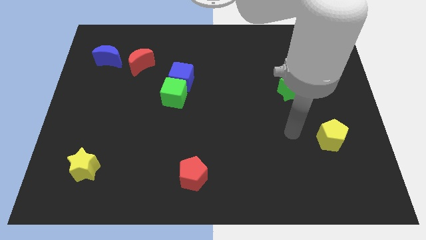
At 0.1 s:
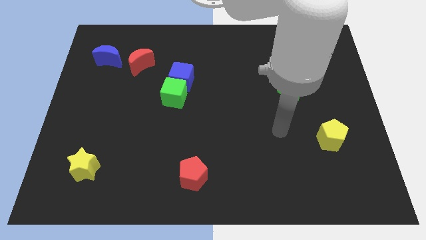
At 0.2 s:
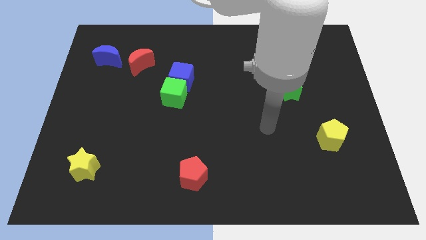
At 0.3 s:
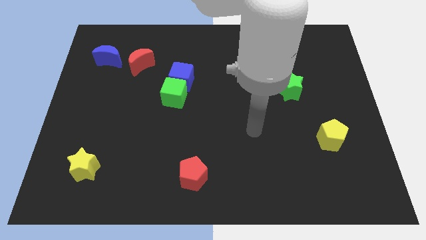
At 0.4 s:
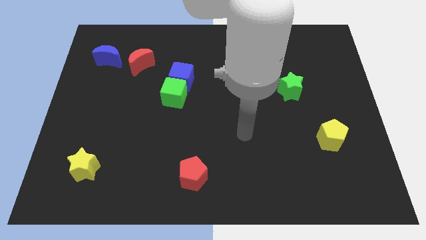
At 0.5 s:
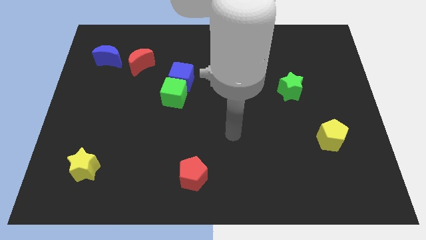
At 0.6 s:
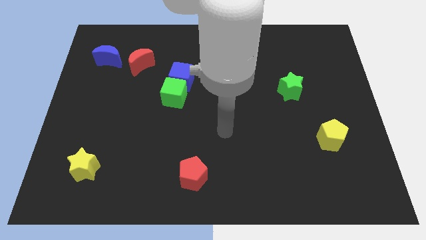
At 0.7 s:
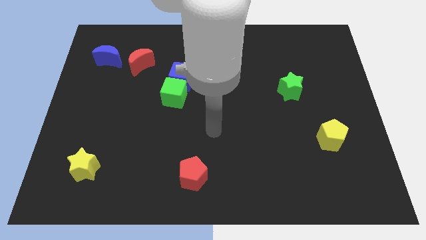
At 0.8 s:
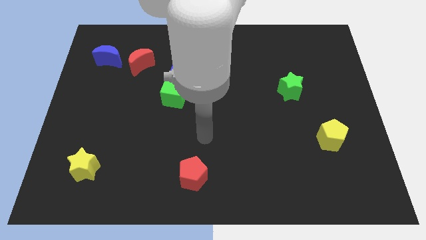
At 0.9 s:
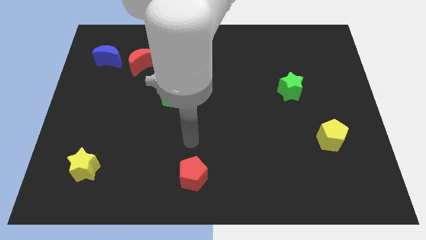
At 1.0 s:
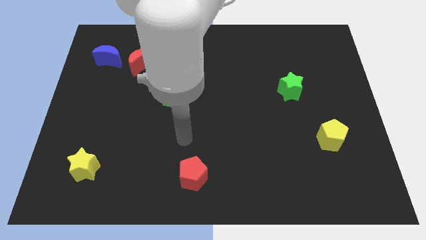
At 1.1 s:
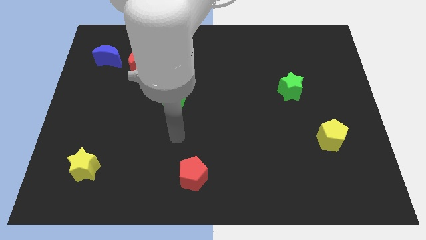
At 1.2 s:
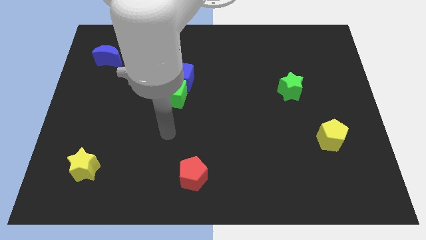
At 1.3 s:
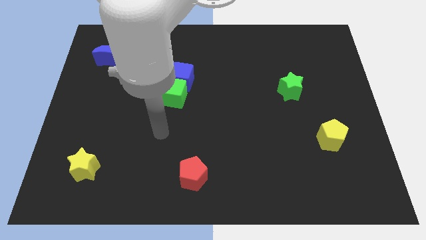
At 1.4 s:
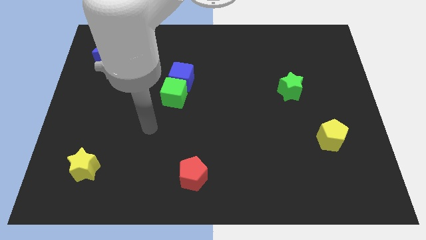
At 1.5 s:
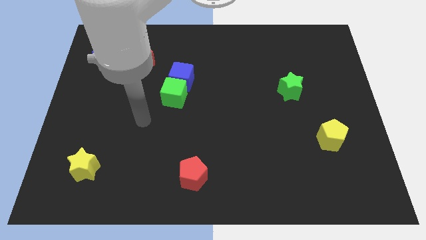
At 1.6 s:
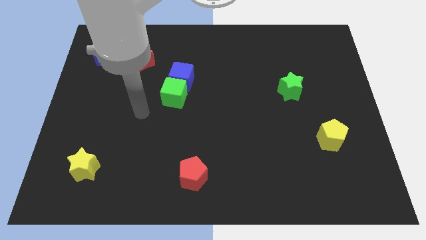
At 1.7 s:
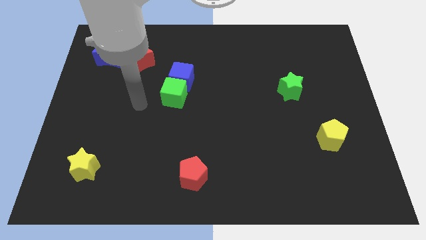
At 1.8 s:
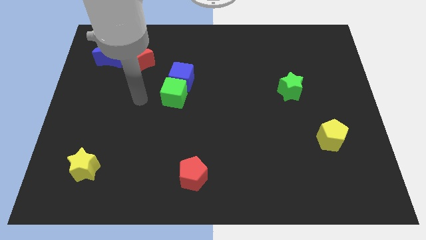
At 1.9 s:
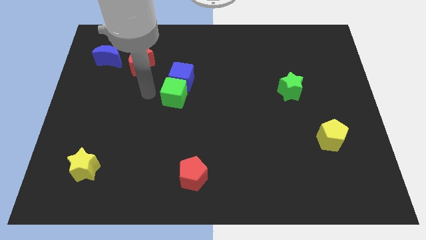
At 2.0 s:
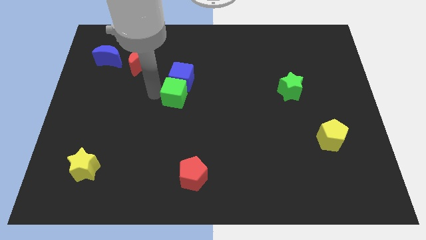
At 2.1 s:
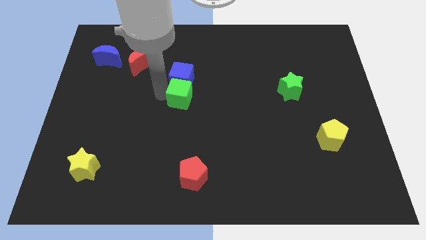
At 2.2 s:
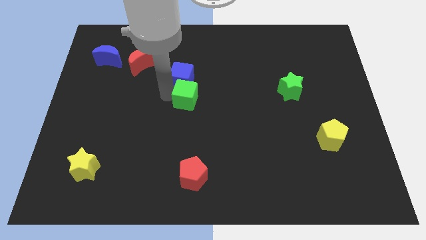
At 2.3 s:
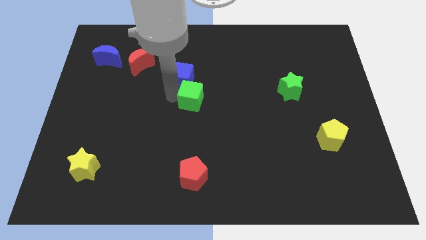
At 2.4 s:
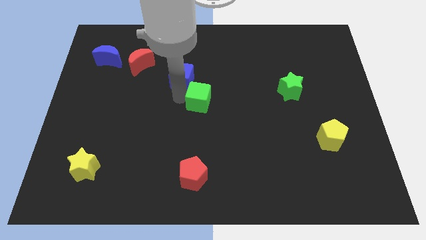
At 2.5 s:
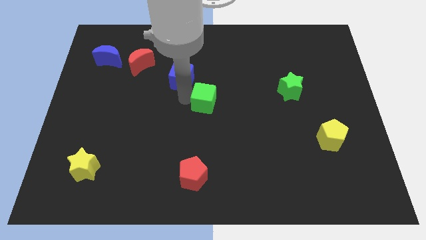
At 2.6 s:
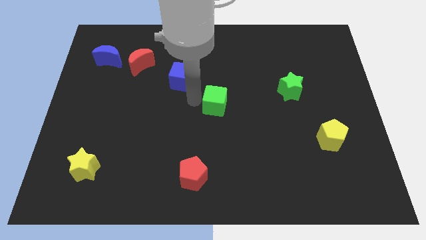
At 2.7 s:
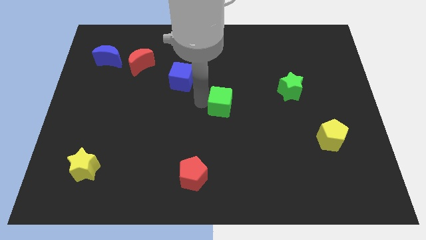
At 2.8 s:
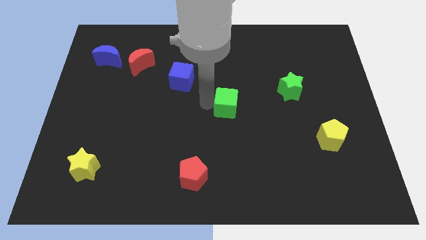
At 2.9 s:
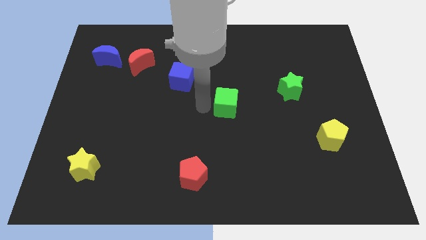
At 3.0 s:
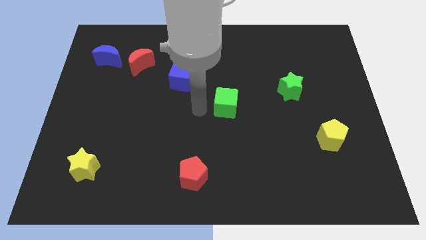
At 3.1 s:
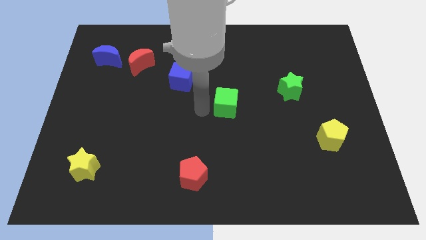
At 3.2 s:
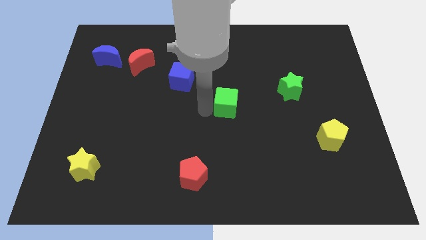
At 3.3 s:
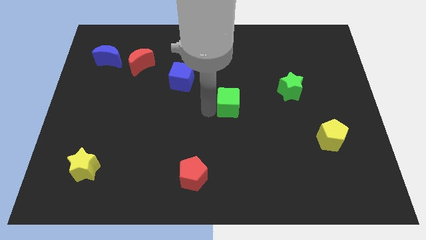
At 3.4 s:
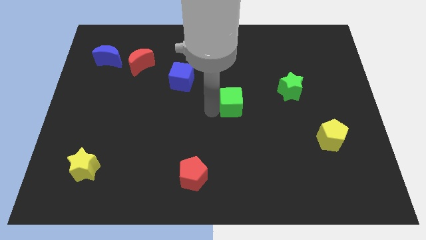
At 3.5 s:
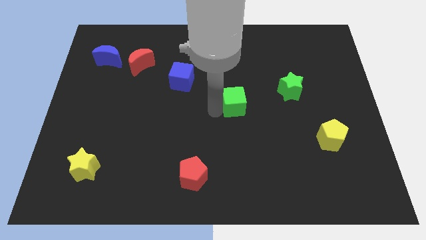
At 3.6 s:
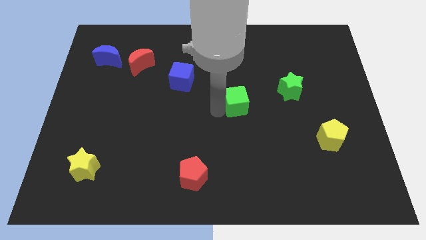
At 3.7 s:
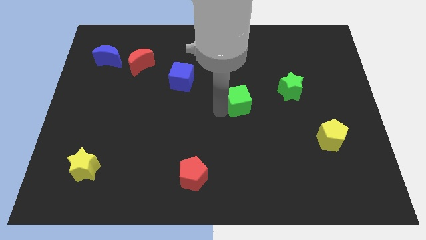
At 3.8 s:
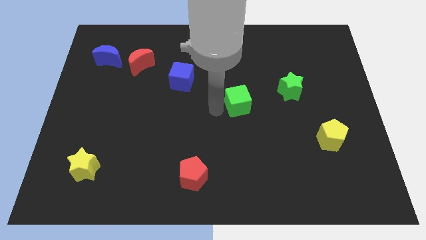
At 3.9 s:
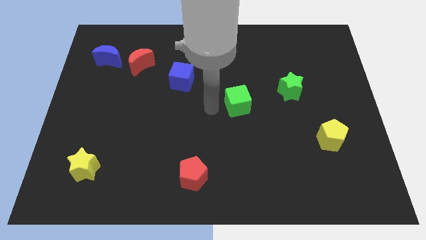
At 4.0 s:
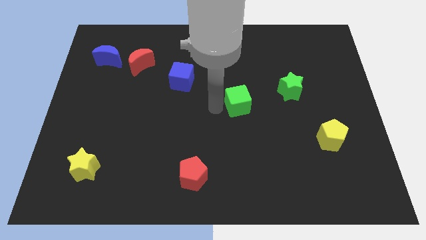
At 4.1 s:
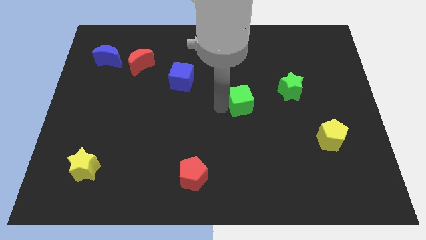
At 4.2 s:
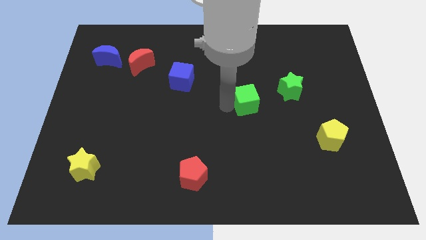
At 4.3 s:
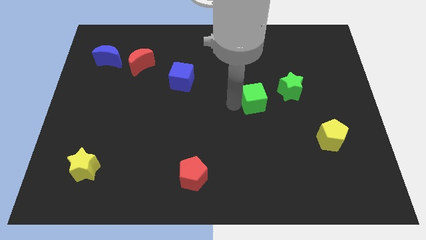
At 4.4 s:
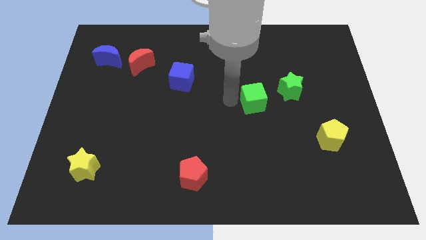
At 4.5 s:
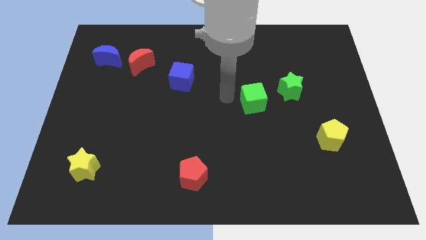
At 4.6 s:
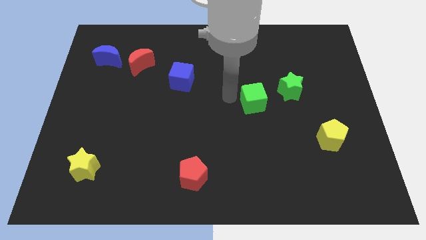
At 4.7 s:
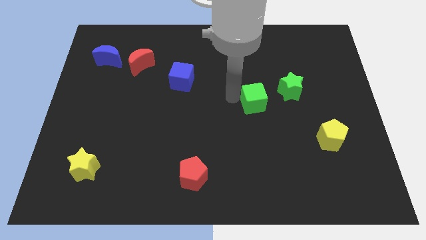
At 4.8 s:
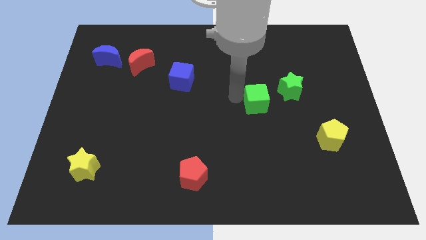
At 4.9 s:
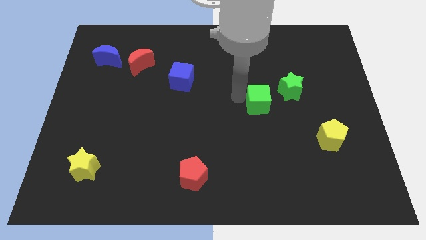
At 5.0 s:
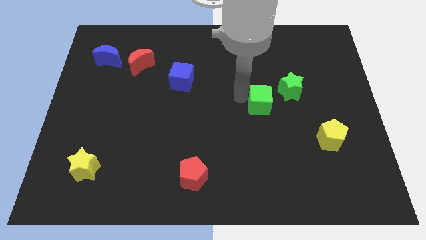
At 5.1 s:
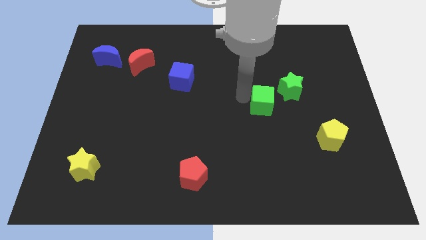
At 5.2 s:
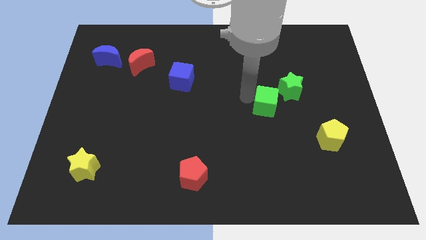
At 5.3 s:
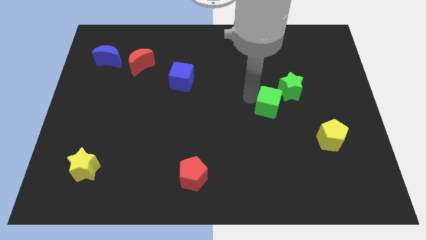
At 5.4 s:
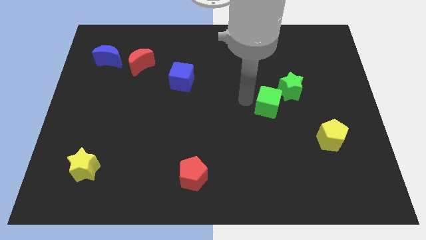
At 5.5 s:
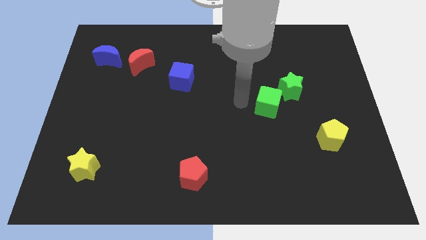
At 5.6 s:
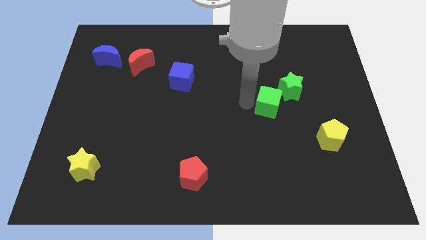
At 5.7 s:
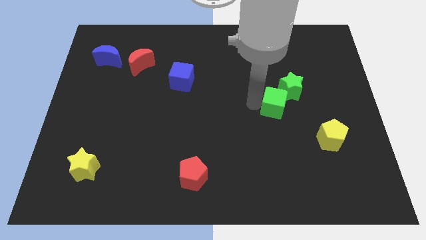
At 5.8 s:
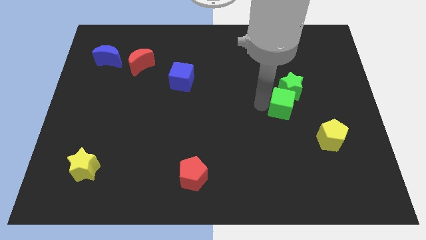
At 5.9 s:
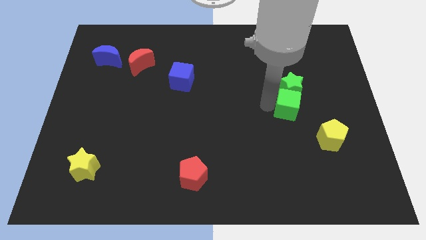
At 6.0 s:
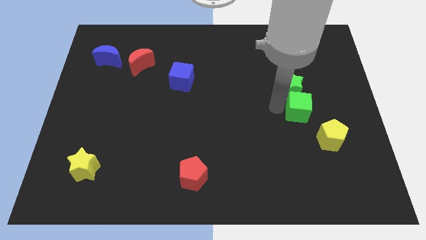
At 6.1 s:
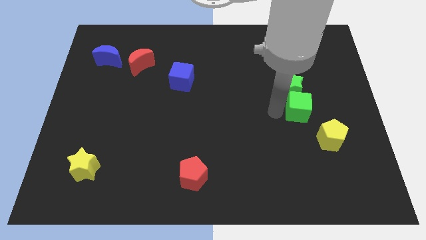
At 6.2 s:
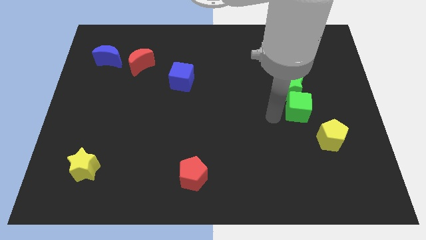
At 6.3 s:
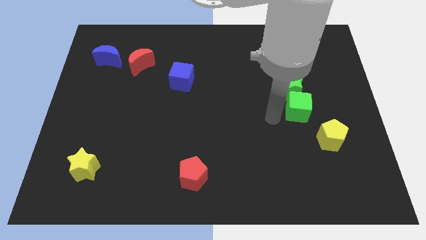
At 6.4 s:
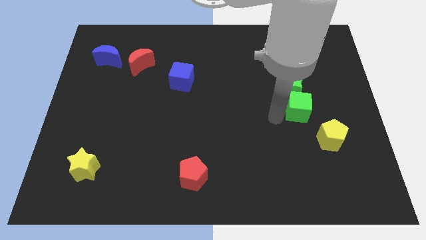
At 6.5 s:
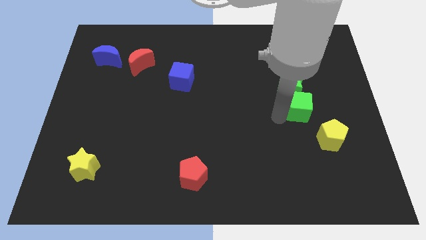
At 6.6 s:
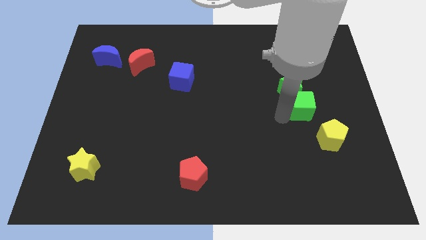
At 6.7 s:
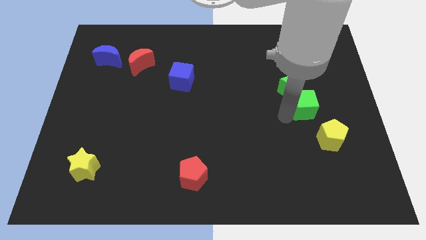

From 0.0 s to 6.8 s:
push the green cube to the top side of the yellow pentagon

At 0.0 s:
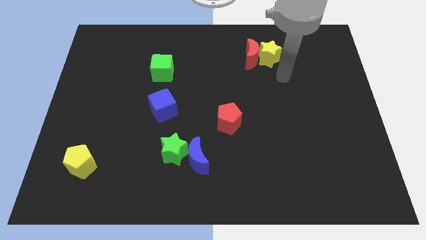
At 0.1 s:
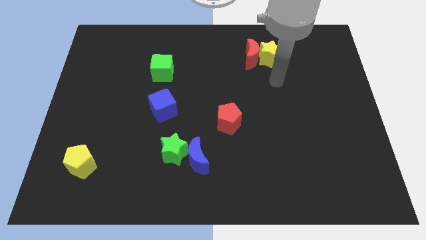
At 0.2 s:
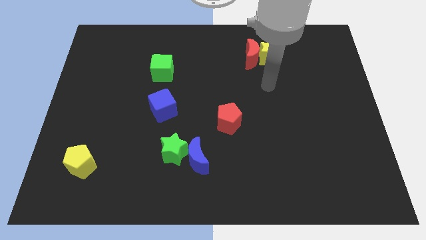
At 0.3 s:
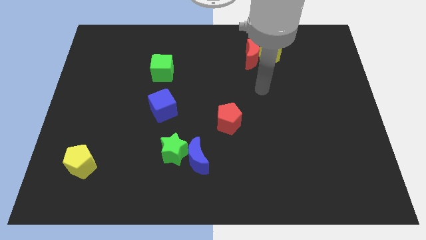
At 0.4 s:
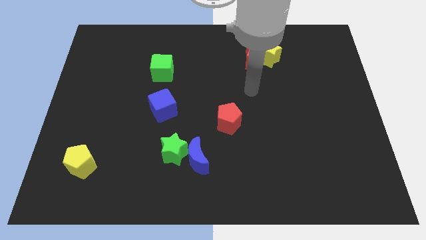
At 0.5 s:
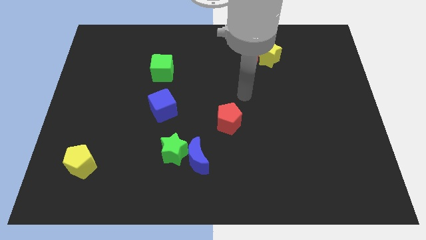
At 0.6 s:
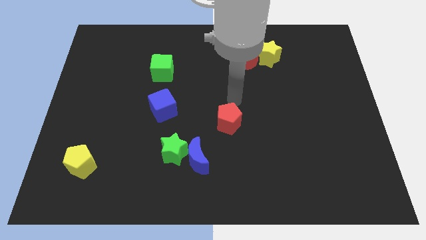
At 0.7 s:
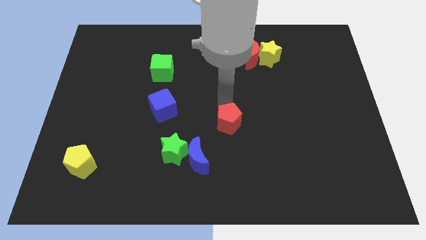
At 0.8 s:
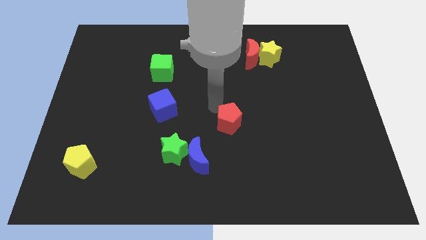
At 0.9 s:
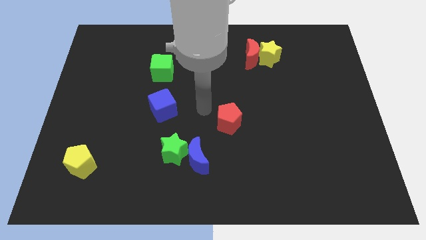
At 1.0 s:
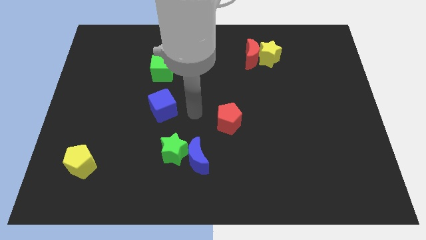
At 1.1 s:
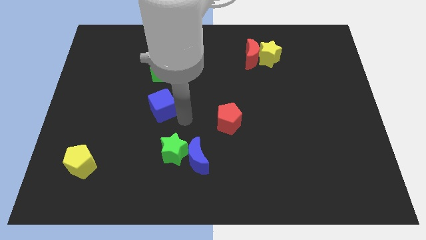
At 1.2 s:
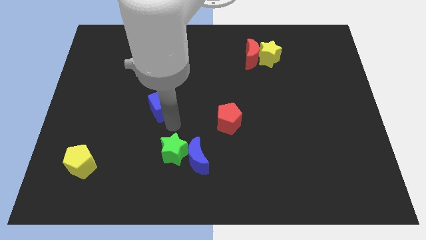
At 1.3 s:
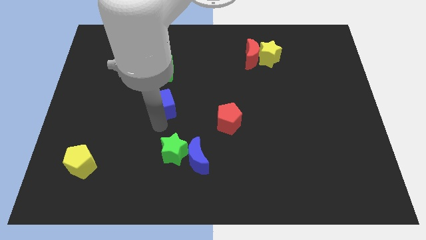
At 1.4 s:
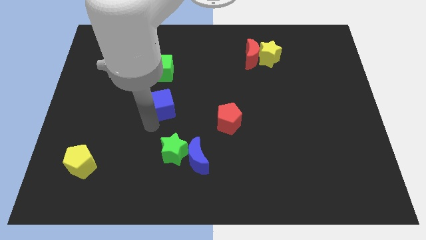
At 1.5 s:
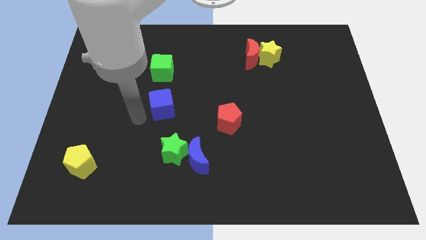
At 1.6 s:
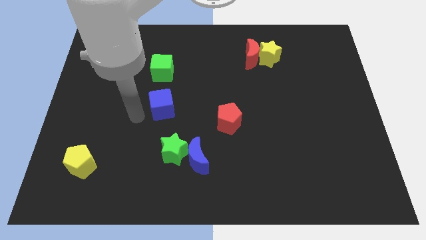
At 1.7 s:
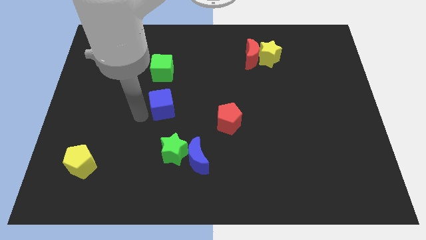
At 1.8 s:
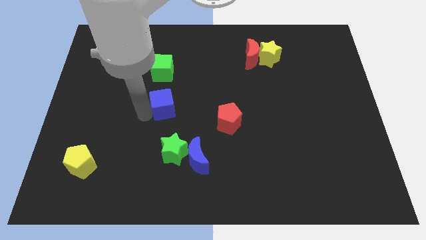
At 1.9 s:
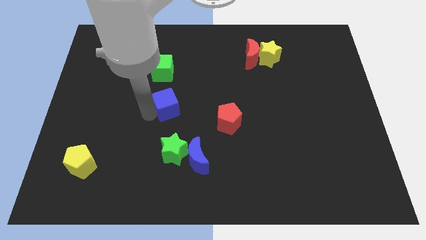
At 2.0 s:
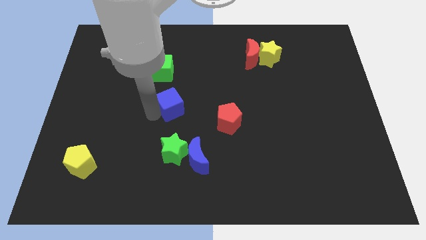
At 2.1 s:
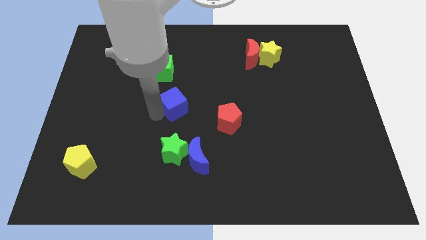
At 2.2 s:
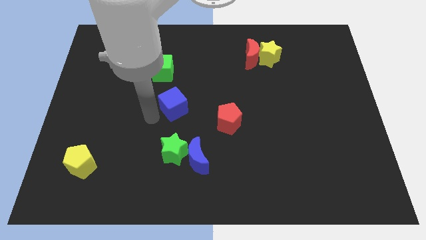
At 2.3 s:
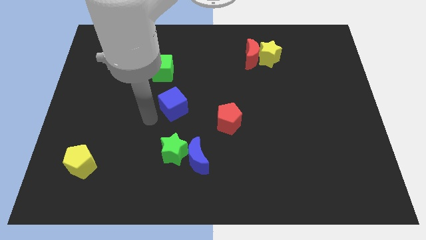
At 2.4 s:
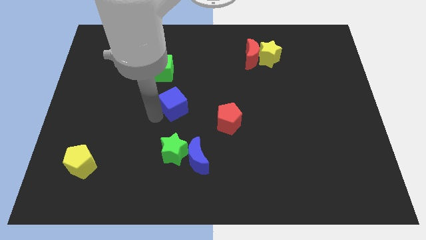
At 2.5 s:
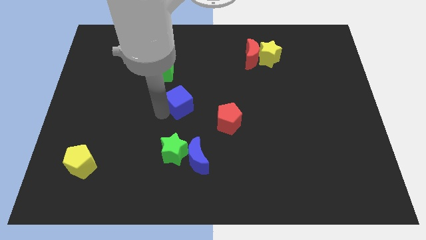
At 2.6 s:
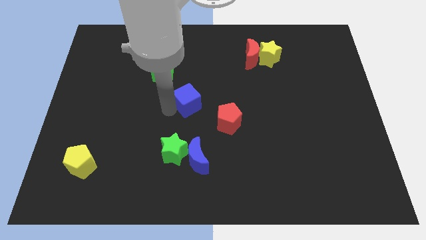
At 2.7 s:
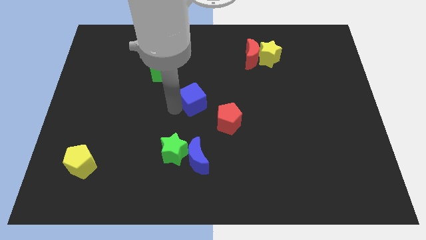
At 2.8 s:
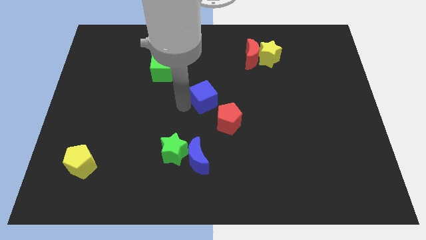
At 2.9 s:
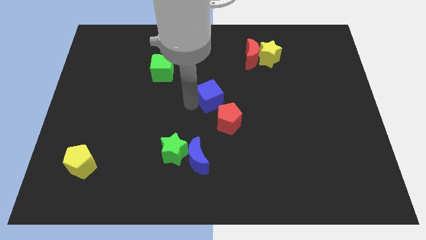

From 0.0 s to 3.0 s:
slide the blue cube to the top of the red pentagon
